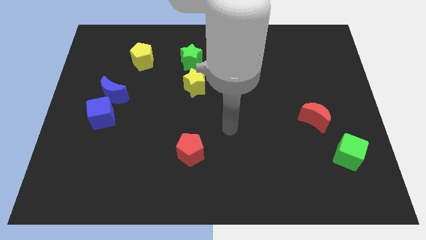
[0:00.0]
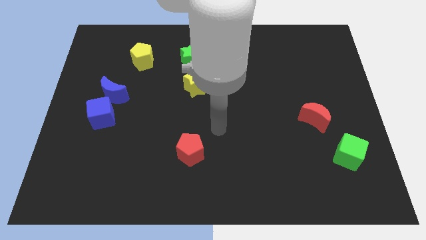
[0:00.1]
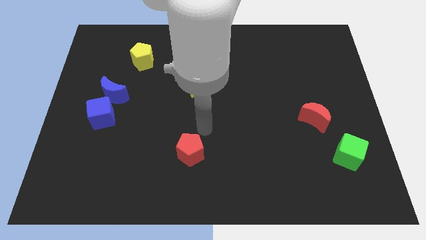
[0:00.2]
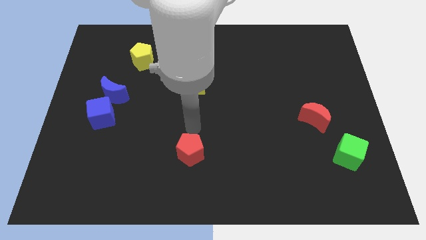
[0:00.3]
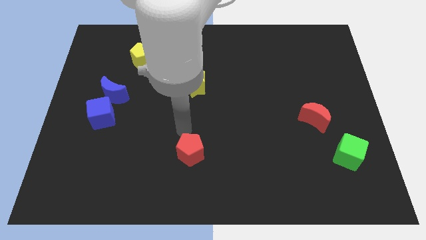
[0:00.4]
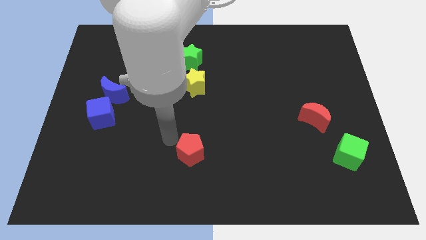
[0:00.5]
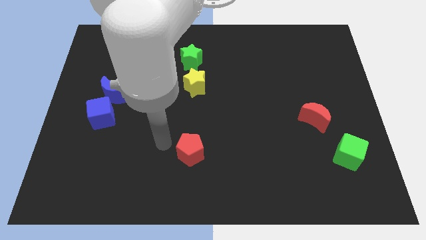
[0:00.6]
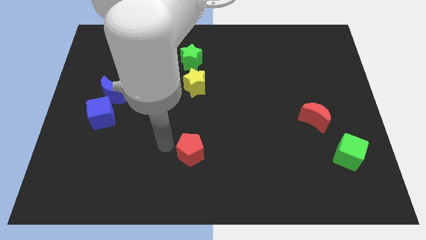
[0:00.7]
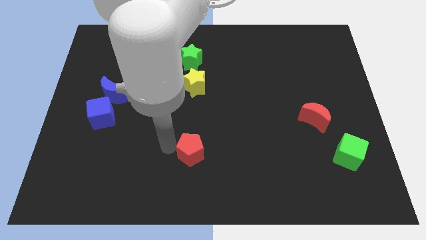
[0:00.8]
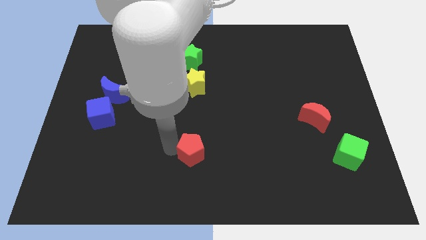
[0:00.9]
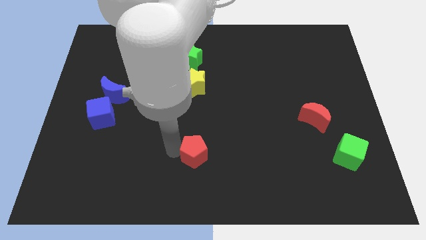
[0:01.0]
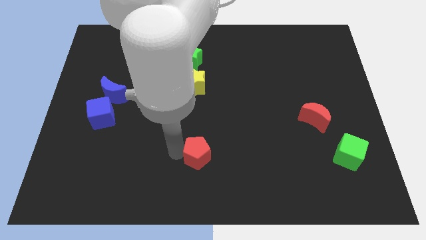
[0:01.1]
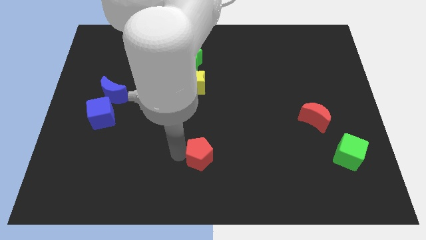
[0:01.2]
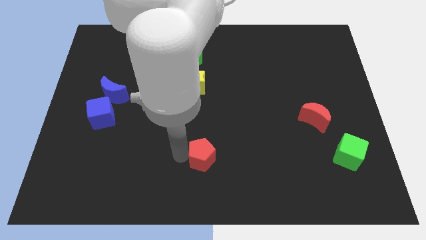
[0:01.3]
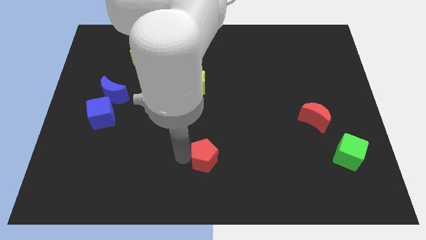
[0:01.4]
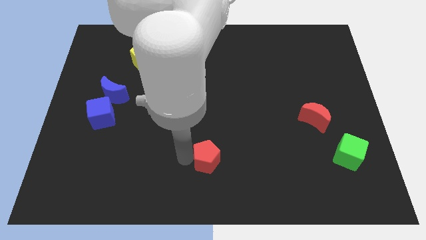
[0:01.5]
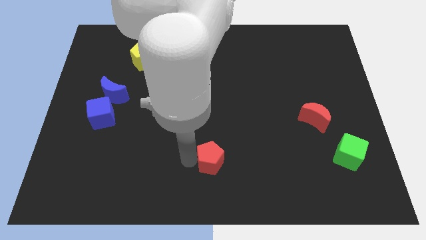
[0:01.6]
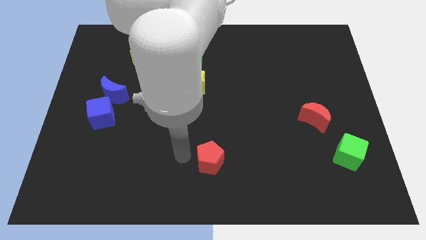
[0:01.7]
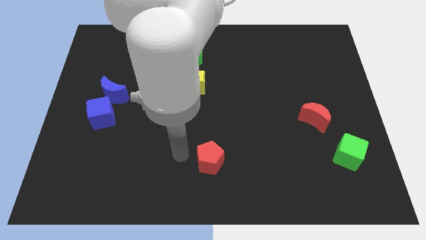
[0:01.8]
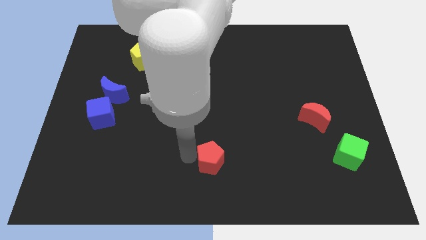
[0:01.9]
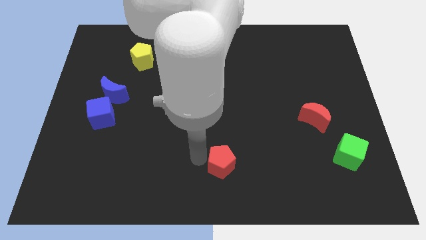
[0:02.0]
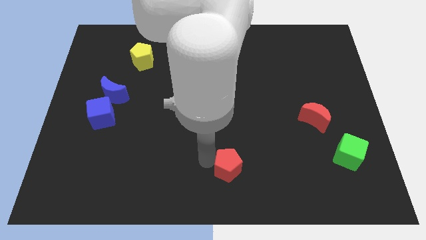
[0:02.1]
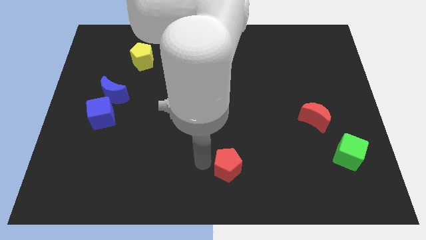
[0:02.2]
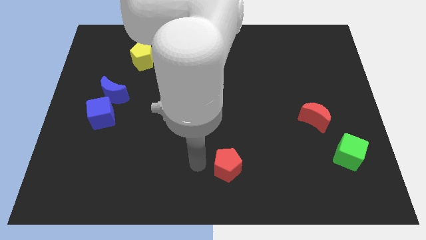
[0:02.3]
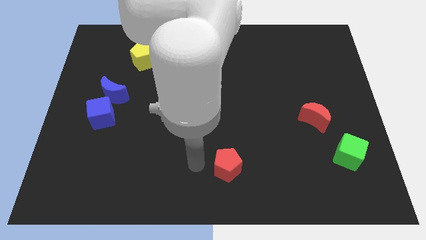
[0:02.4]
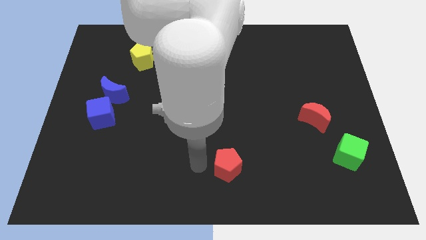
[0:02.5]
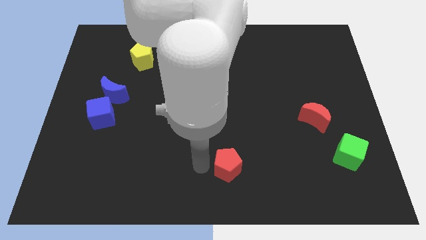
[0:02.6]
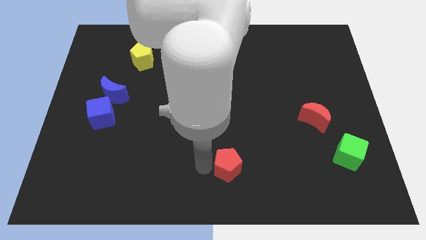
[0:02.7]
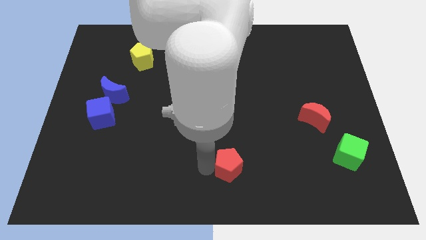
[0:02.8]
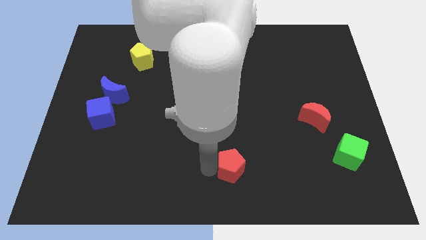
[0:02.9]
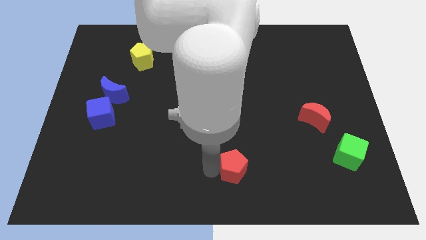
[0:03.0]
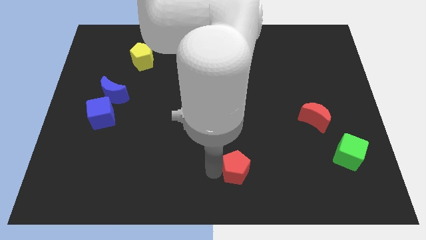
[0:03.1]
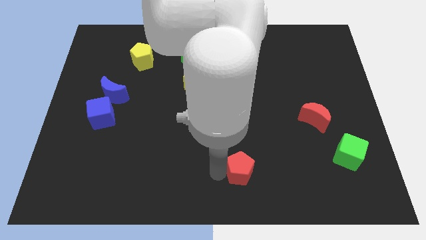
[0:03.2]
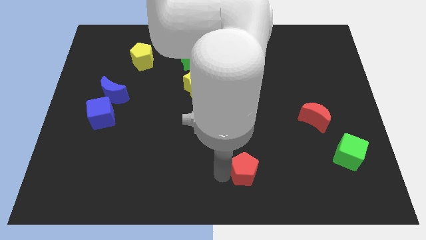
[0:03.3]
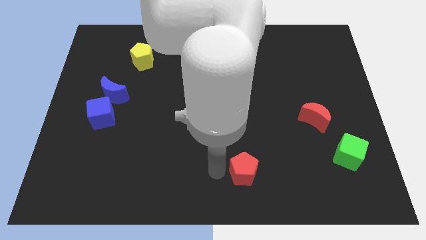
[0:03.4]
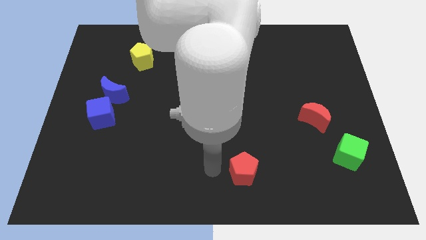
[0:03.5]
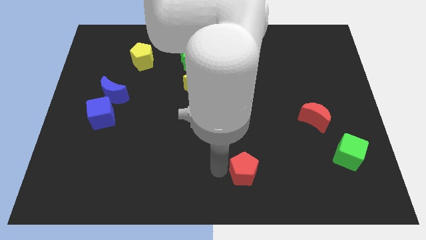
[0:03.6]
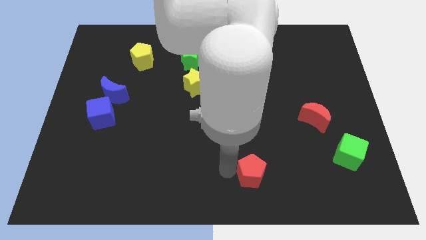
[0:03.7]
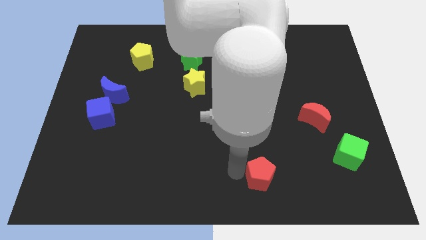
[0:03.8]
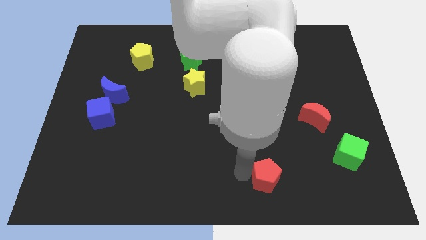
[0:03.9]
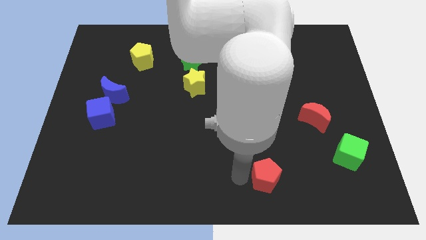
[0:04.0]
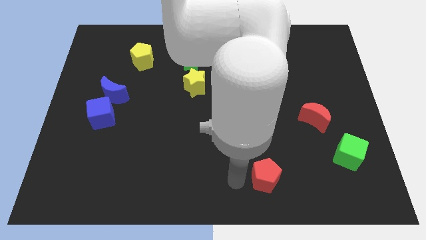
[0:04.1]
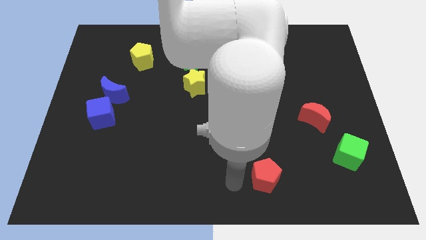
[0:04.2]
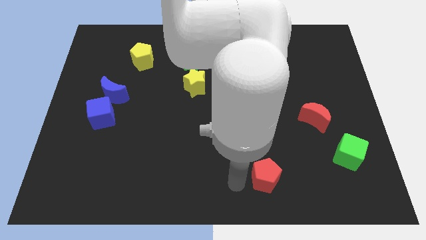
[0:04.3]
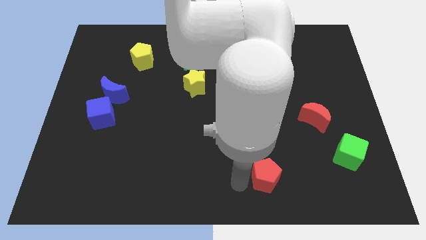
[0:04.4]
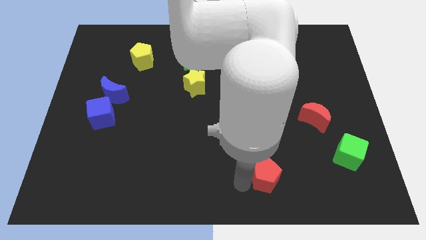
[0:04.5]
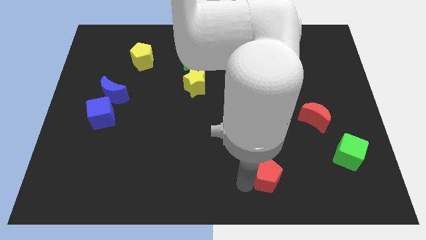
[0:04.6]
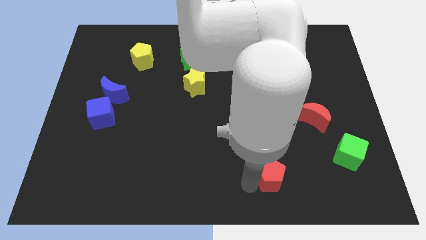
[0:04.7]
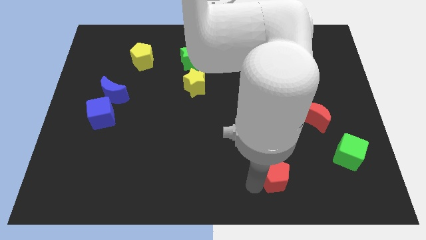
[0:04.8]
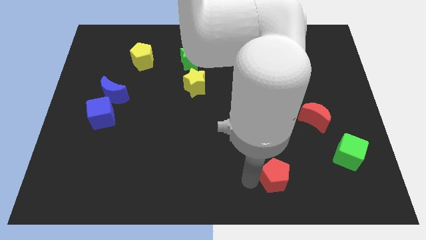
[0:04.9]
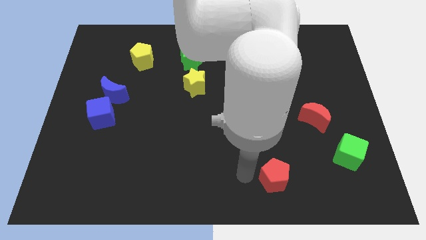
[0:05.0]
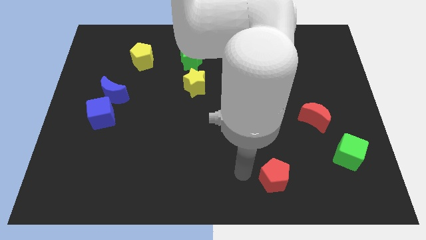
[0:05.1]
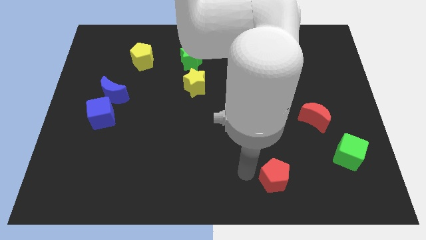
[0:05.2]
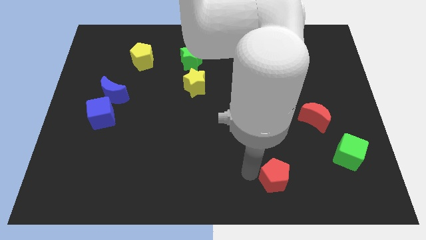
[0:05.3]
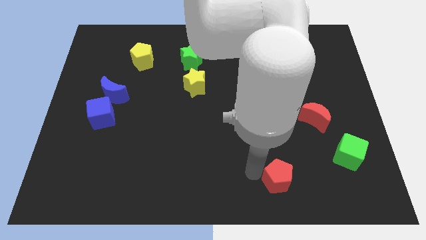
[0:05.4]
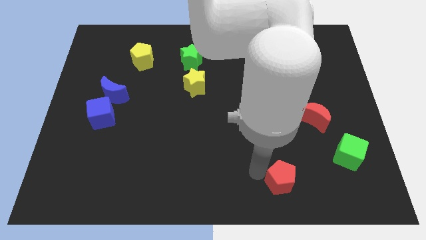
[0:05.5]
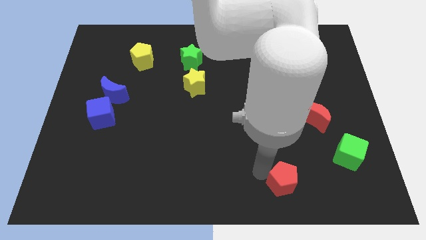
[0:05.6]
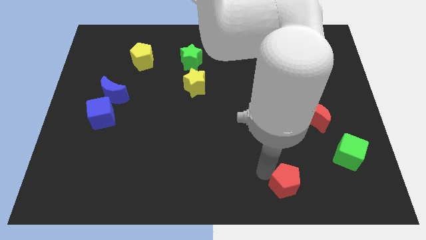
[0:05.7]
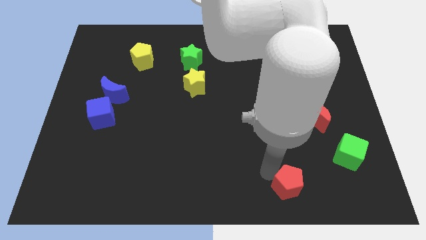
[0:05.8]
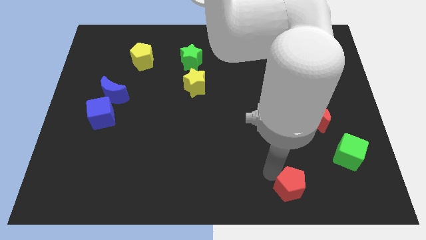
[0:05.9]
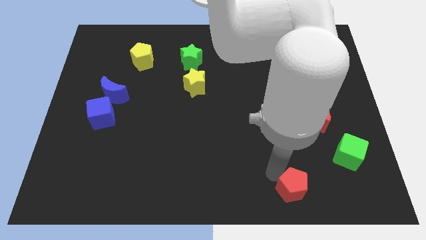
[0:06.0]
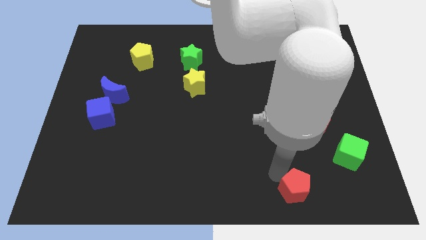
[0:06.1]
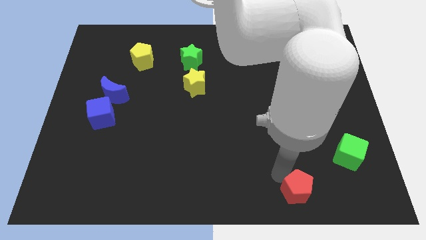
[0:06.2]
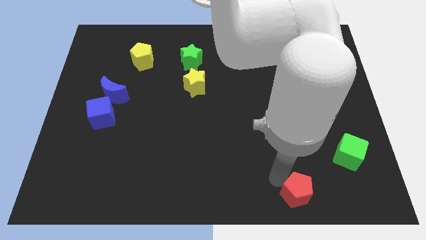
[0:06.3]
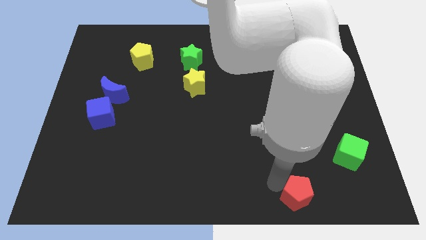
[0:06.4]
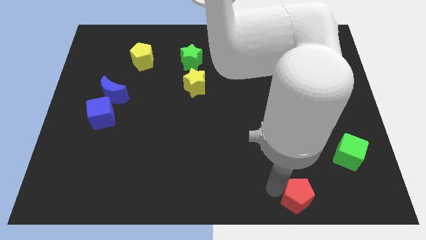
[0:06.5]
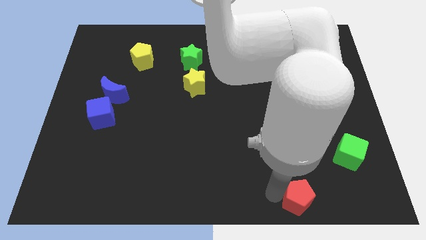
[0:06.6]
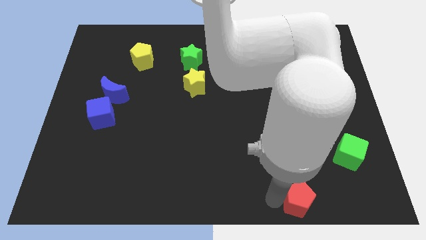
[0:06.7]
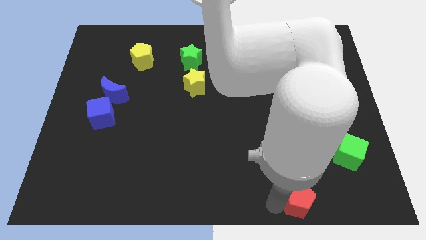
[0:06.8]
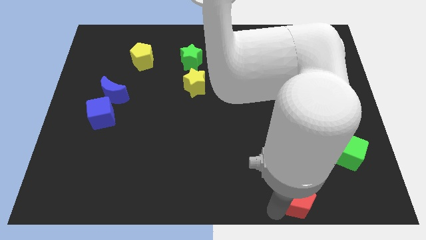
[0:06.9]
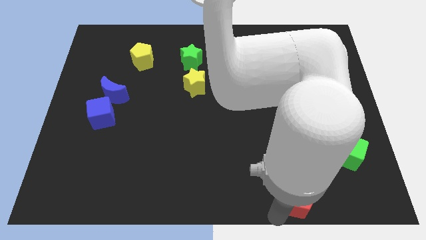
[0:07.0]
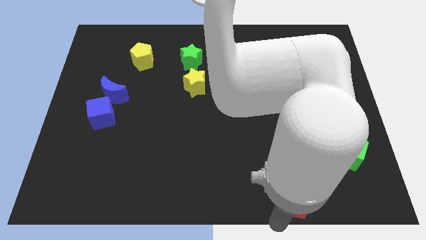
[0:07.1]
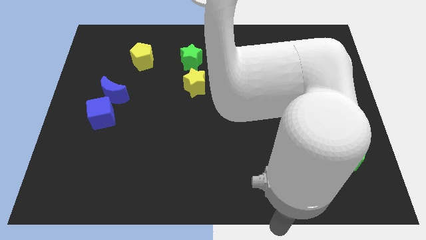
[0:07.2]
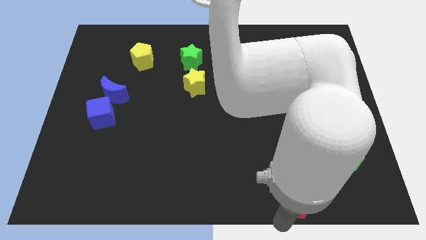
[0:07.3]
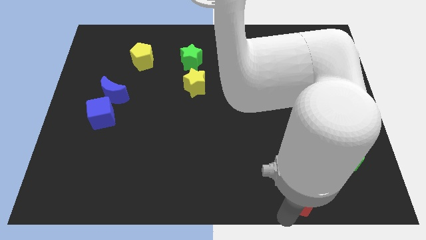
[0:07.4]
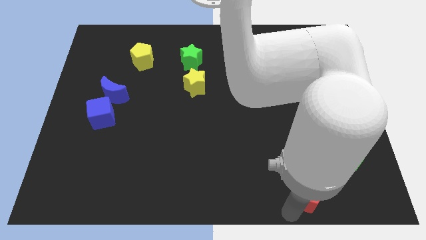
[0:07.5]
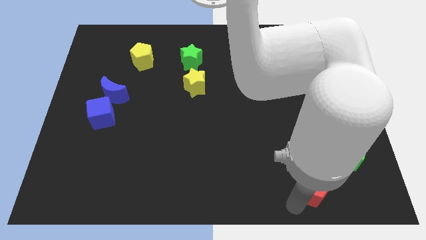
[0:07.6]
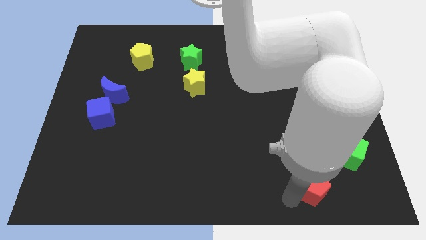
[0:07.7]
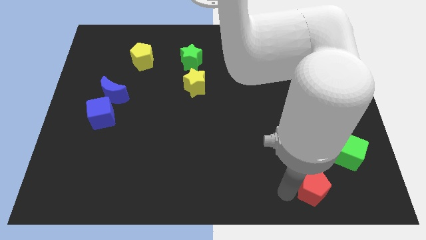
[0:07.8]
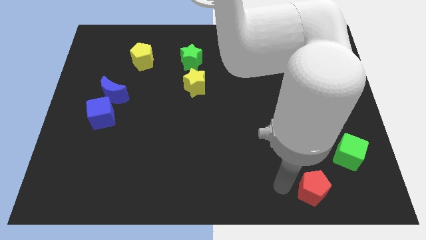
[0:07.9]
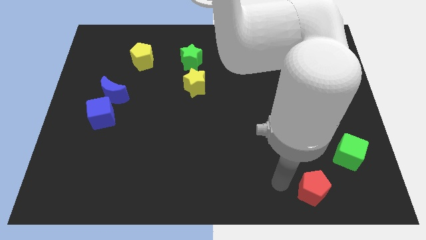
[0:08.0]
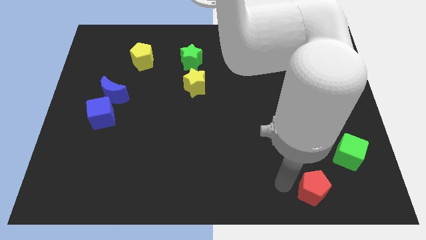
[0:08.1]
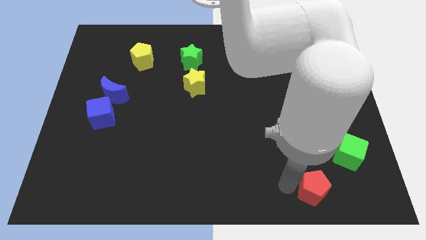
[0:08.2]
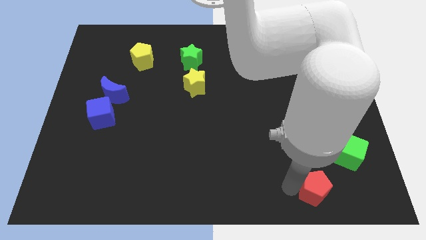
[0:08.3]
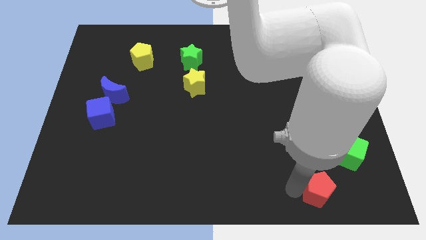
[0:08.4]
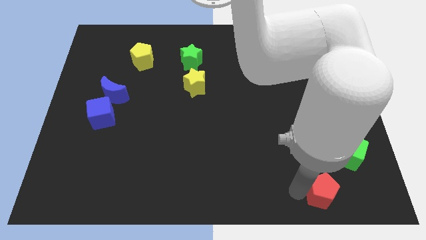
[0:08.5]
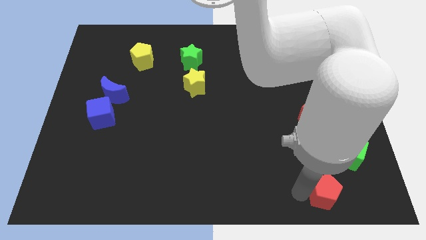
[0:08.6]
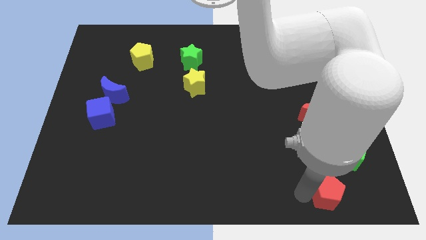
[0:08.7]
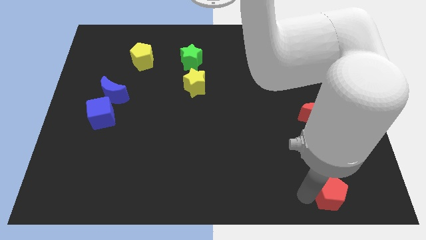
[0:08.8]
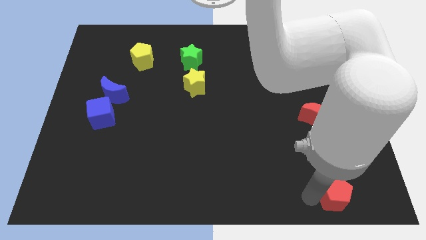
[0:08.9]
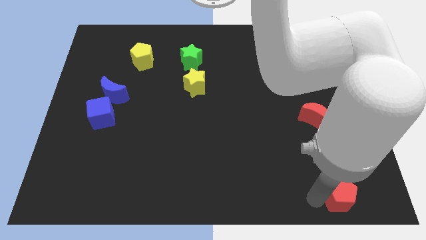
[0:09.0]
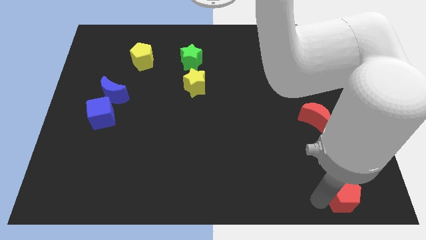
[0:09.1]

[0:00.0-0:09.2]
put the red pentagon to the lower right corner
